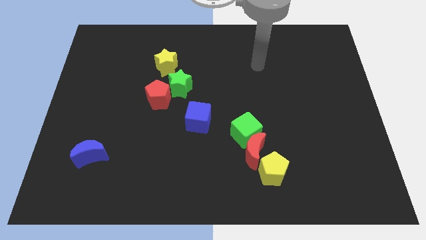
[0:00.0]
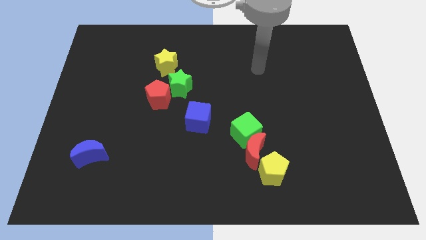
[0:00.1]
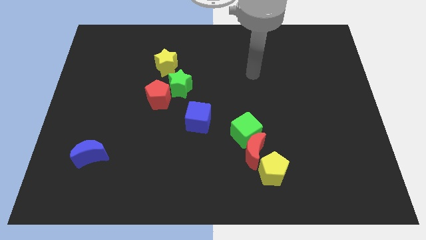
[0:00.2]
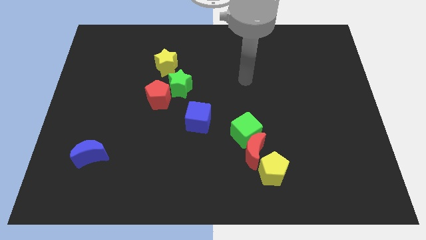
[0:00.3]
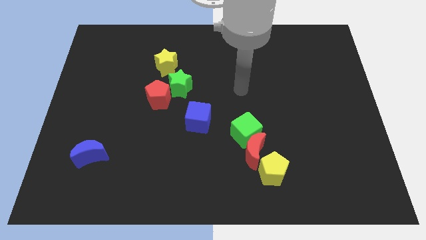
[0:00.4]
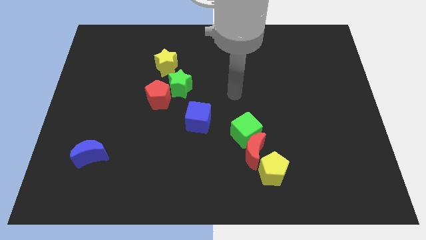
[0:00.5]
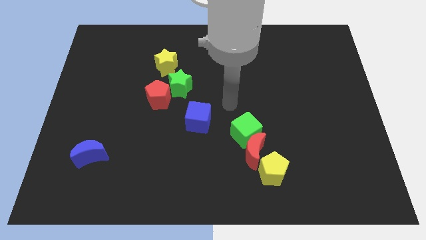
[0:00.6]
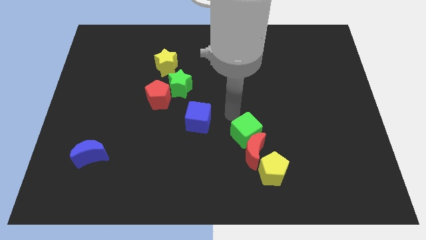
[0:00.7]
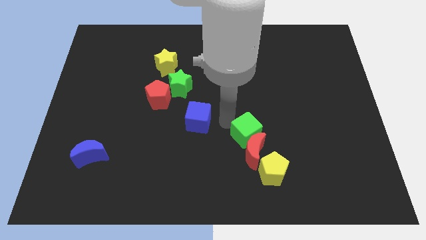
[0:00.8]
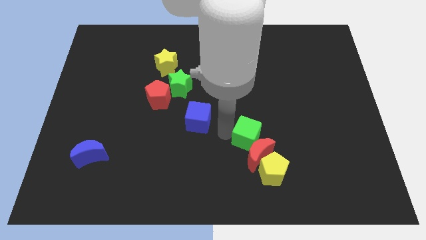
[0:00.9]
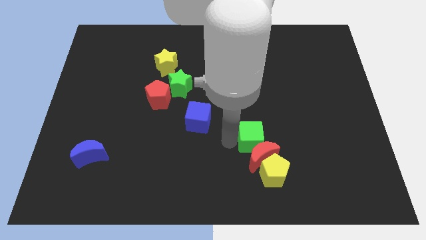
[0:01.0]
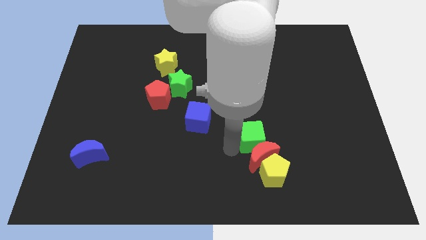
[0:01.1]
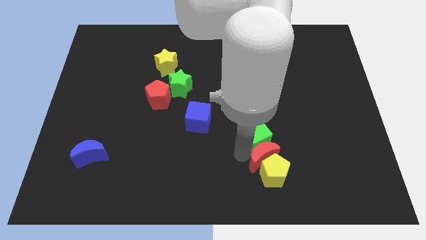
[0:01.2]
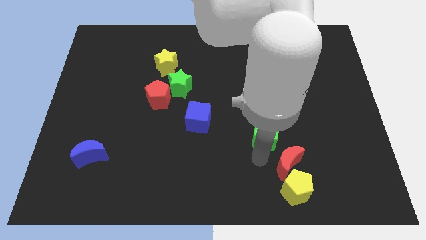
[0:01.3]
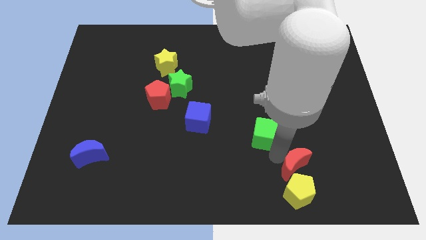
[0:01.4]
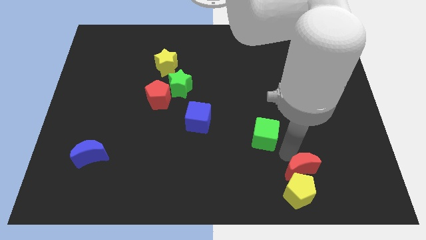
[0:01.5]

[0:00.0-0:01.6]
pull the green cube apart from the red moon

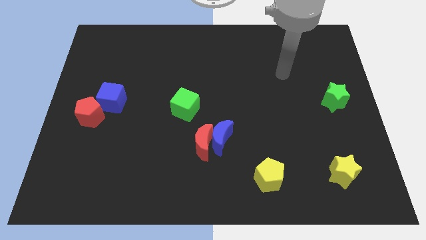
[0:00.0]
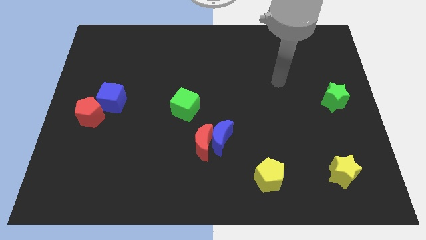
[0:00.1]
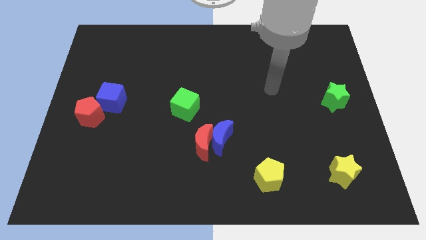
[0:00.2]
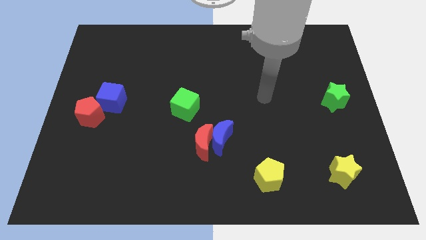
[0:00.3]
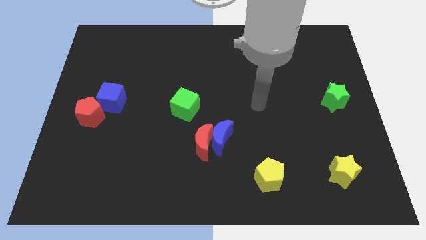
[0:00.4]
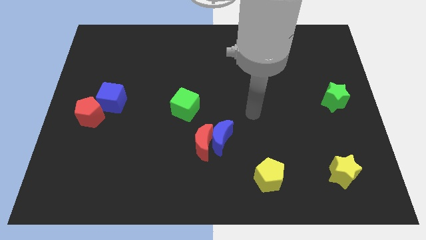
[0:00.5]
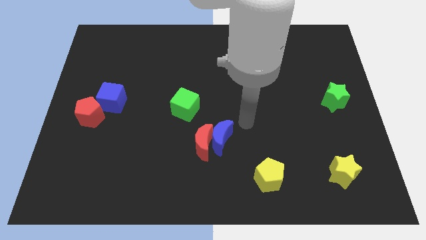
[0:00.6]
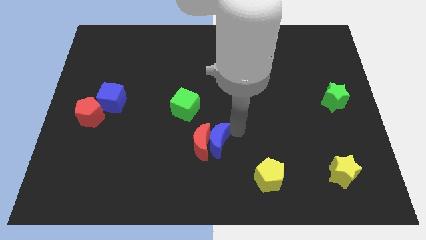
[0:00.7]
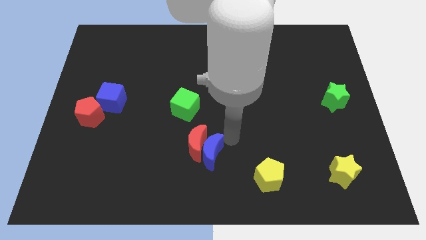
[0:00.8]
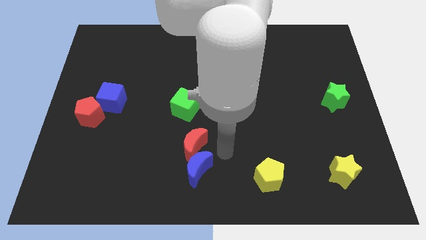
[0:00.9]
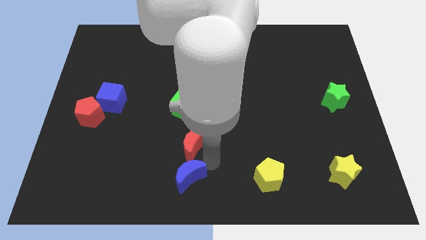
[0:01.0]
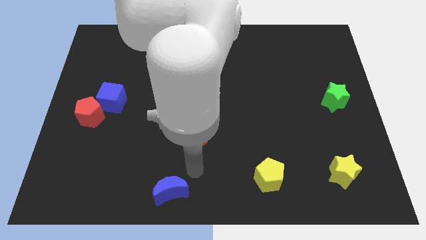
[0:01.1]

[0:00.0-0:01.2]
separate the red moon from the blue moon

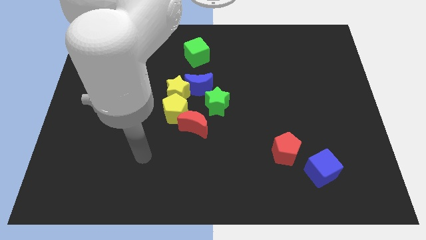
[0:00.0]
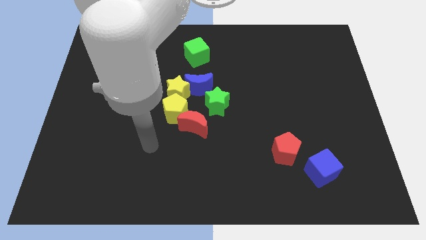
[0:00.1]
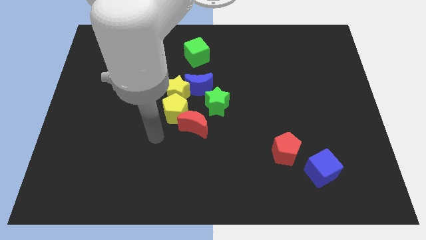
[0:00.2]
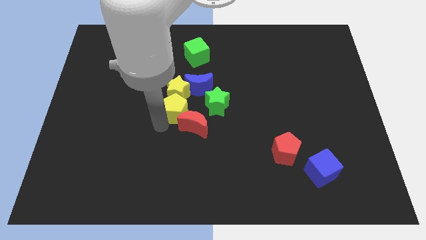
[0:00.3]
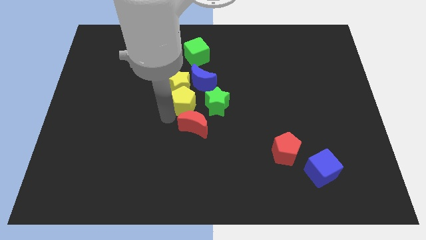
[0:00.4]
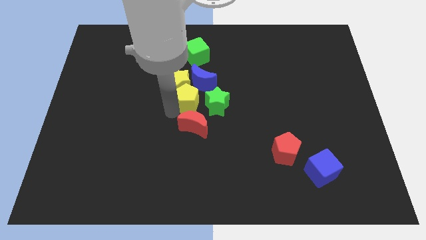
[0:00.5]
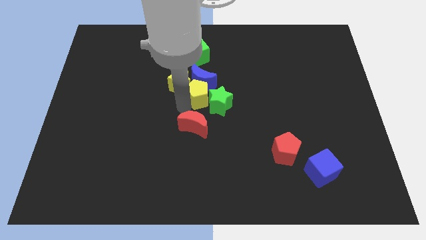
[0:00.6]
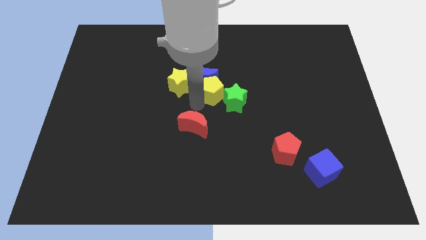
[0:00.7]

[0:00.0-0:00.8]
move the red moon away from the yellow pentagon and green star

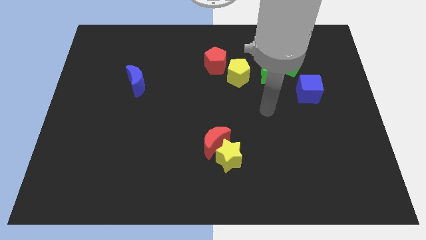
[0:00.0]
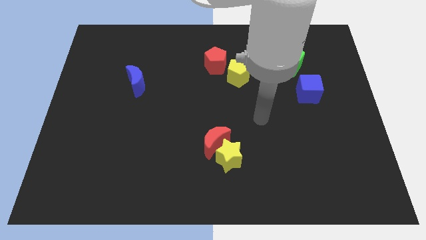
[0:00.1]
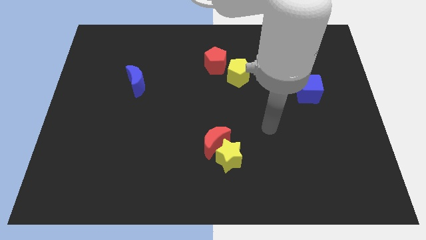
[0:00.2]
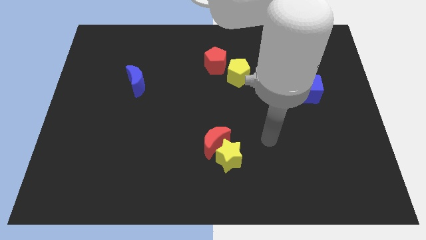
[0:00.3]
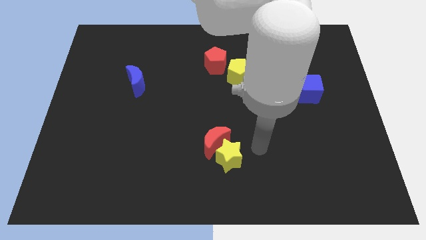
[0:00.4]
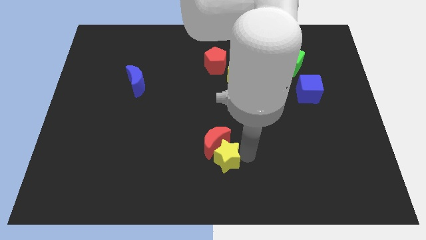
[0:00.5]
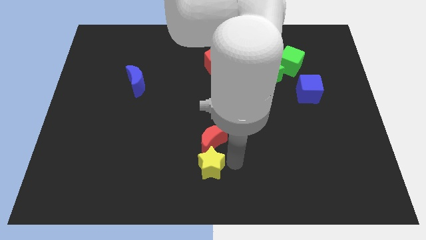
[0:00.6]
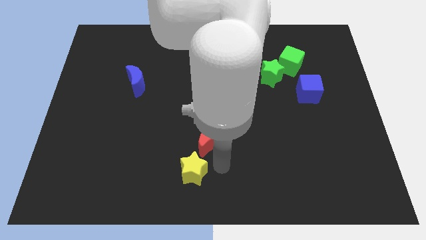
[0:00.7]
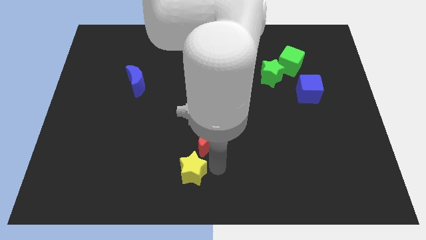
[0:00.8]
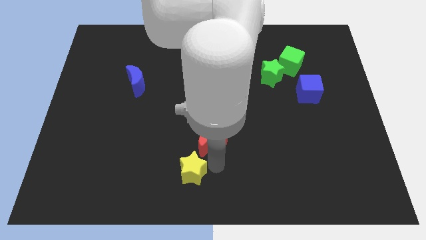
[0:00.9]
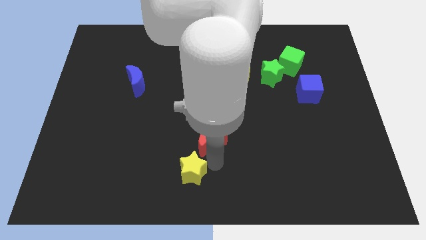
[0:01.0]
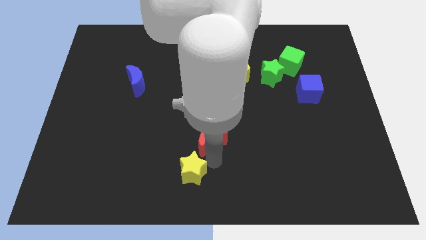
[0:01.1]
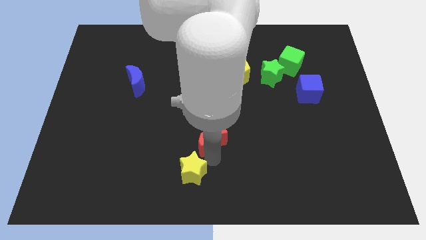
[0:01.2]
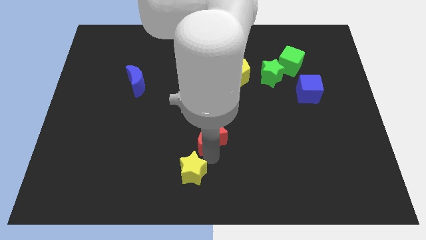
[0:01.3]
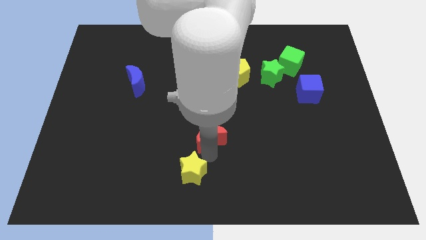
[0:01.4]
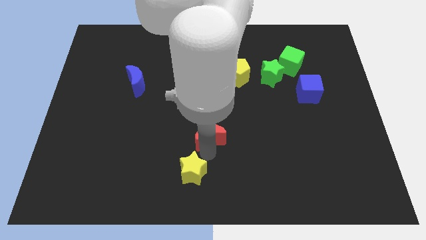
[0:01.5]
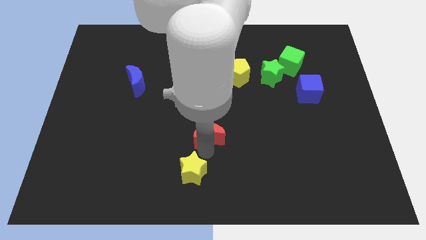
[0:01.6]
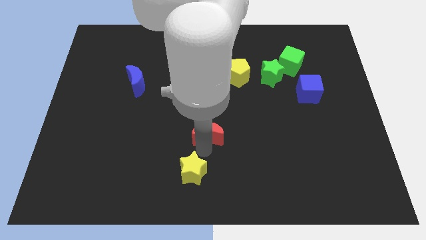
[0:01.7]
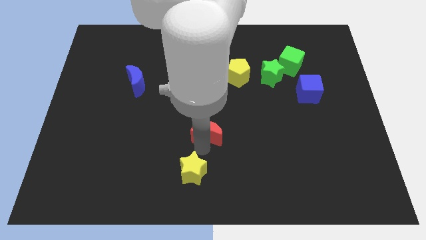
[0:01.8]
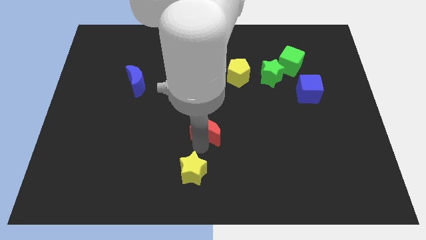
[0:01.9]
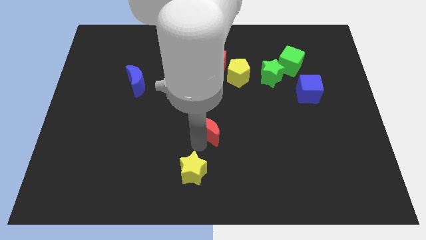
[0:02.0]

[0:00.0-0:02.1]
pull the red moon apart from the yellow star

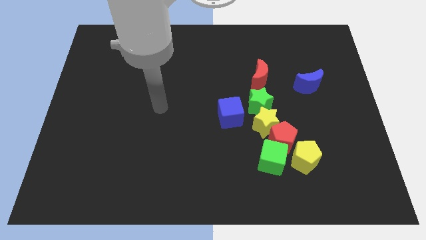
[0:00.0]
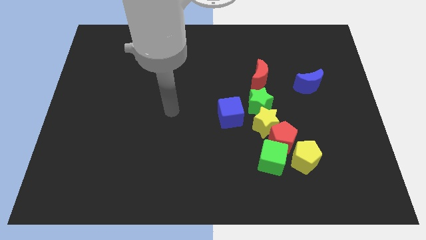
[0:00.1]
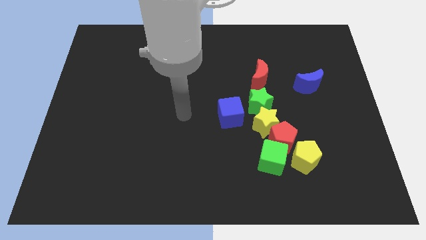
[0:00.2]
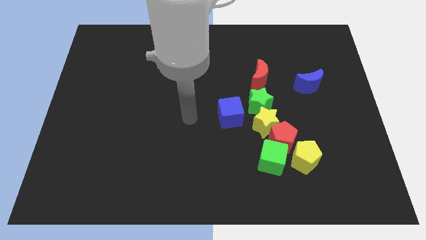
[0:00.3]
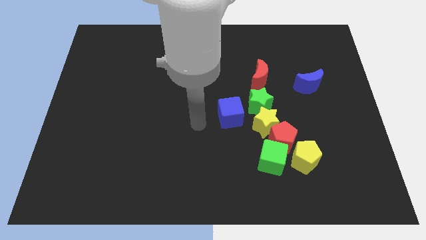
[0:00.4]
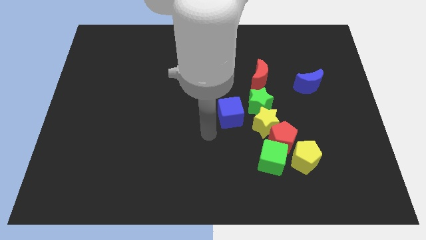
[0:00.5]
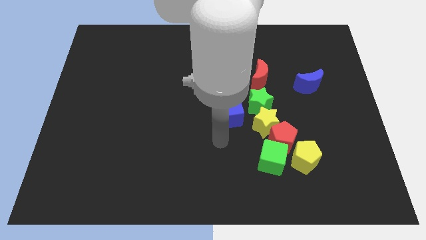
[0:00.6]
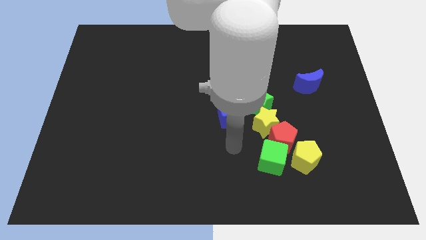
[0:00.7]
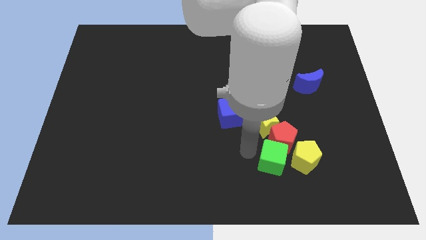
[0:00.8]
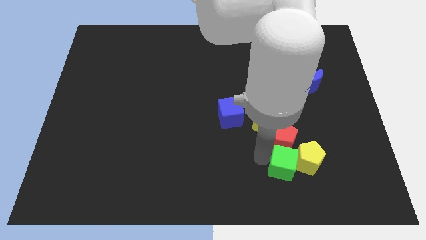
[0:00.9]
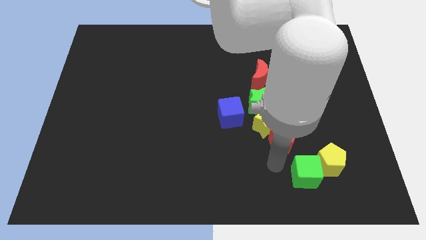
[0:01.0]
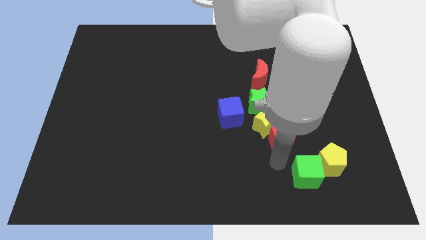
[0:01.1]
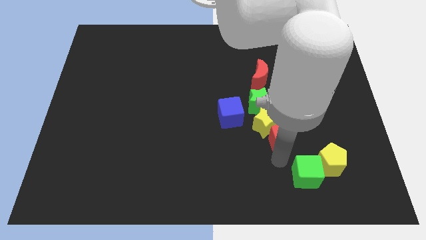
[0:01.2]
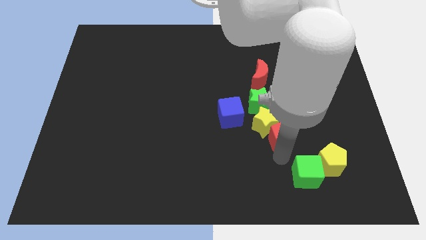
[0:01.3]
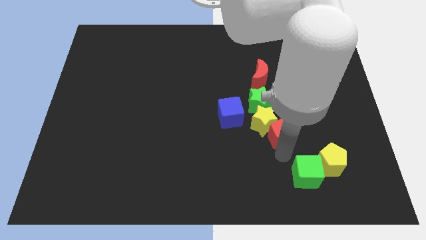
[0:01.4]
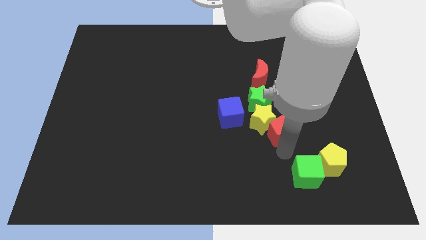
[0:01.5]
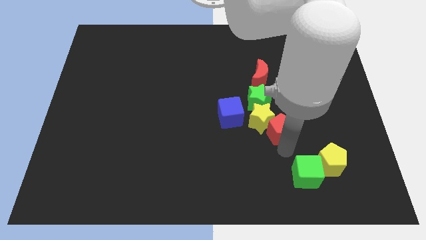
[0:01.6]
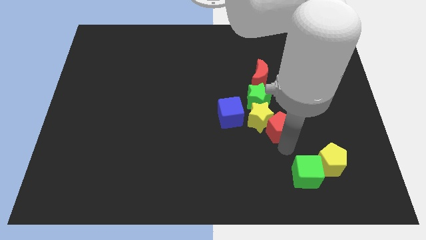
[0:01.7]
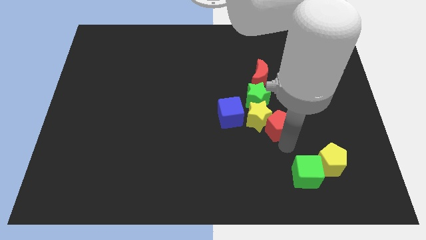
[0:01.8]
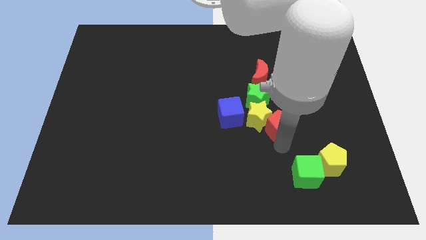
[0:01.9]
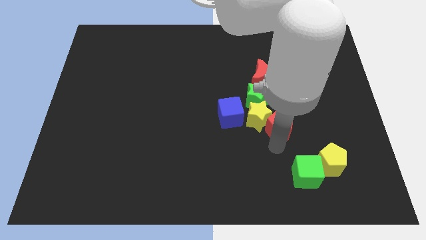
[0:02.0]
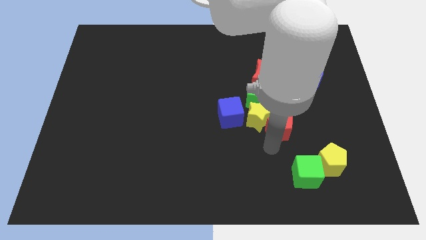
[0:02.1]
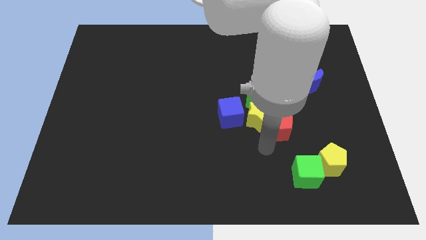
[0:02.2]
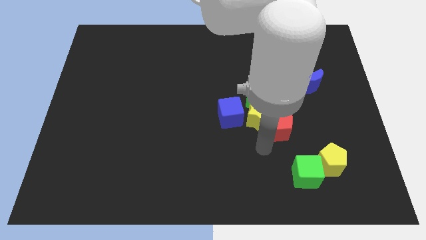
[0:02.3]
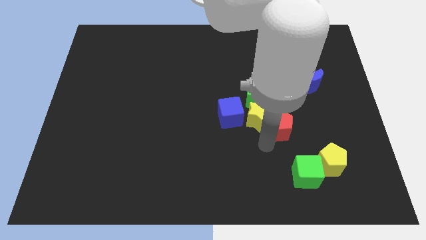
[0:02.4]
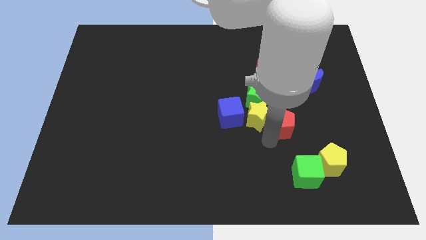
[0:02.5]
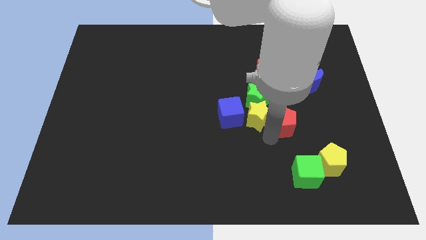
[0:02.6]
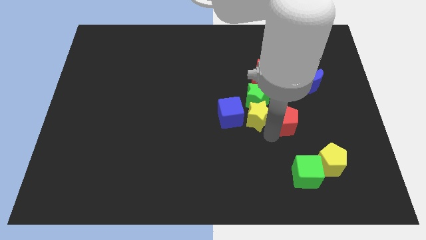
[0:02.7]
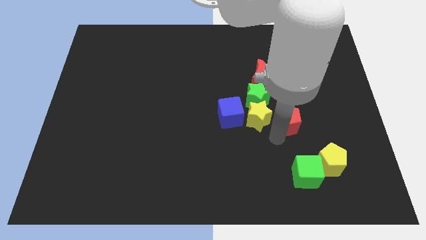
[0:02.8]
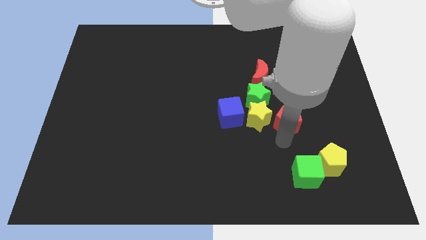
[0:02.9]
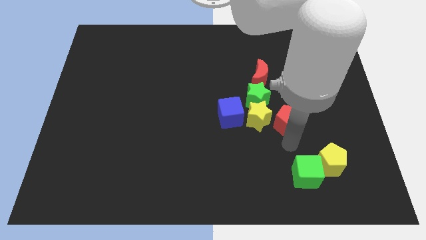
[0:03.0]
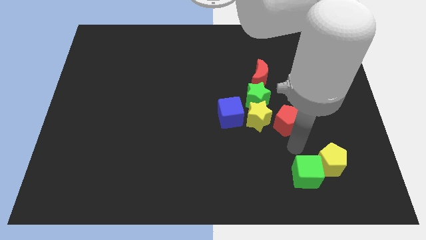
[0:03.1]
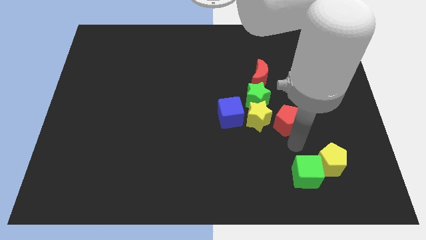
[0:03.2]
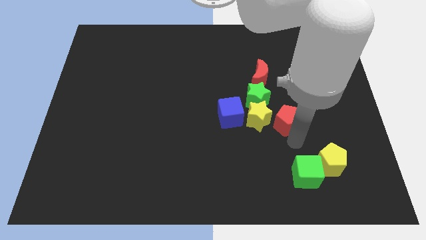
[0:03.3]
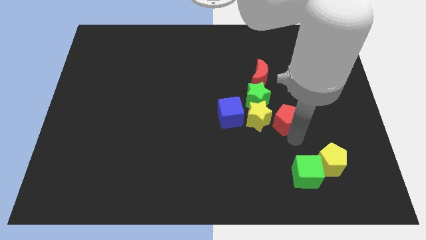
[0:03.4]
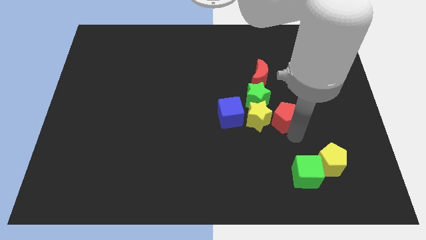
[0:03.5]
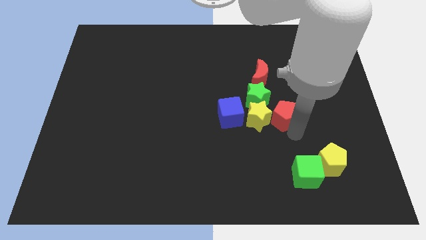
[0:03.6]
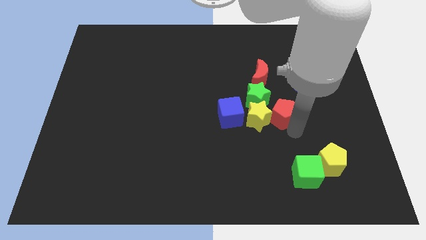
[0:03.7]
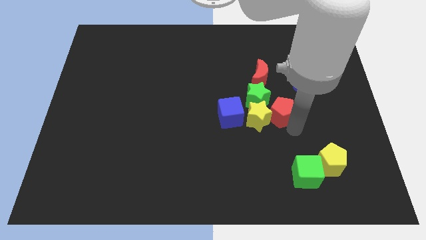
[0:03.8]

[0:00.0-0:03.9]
separate the red pentagon from the yellow star, green cube, and yellow pentagon
